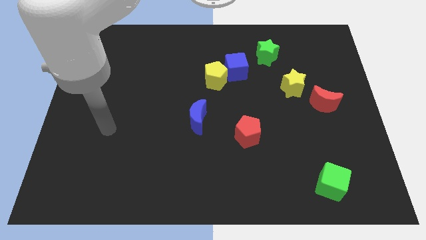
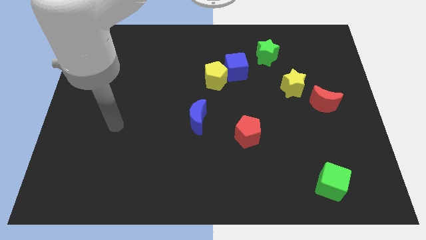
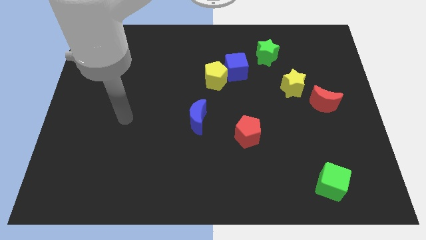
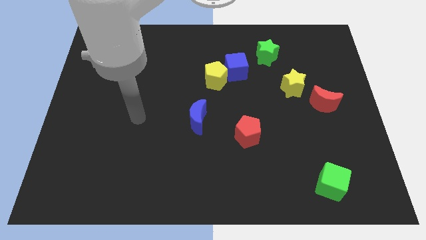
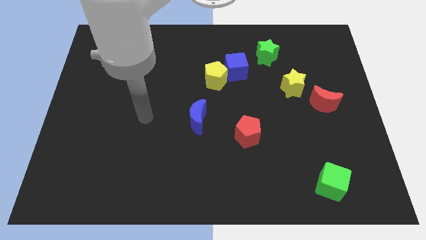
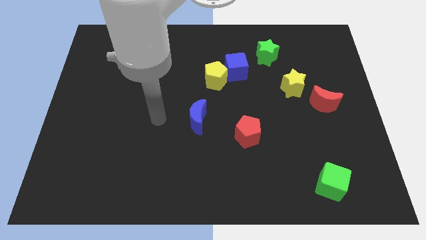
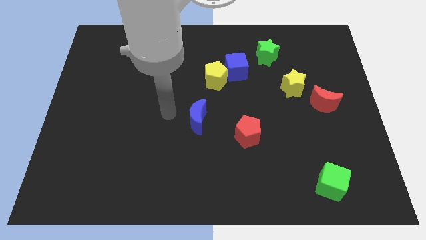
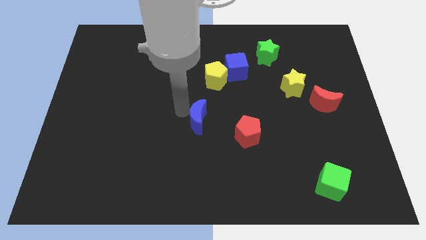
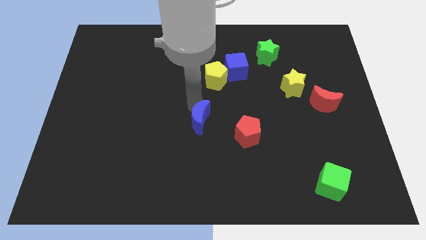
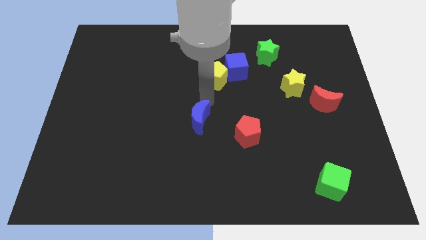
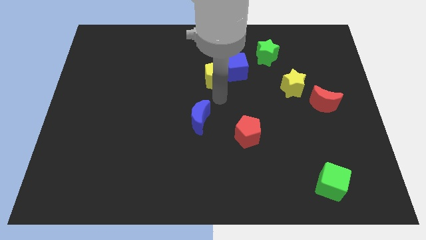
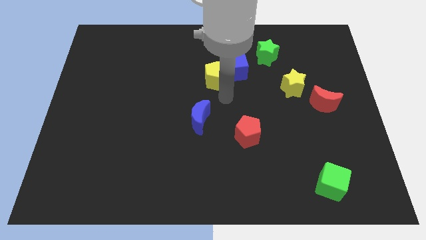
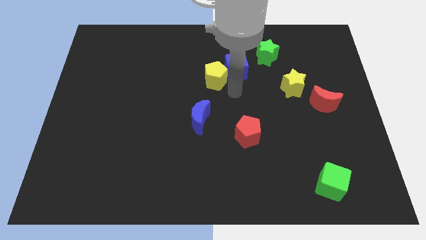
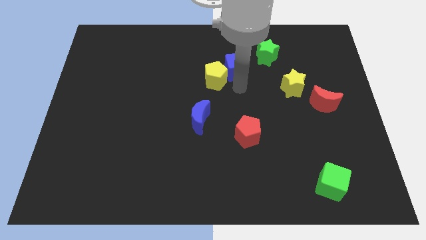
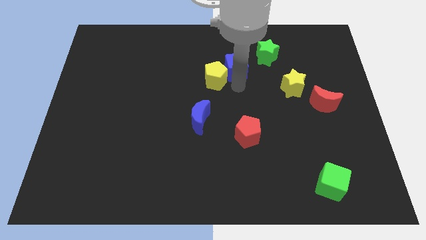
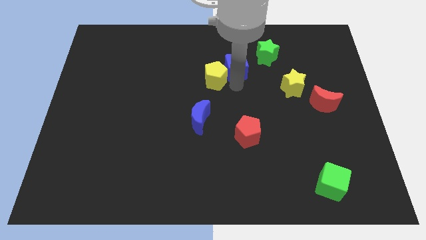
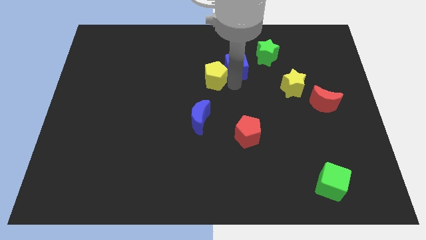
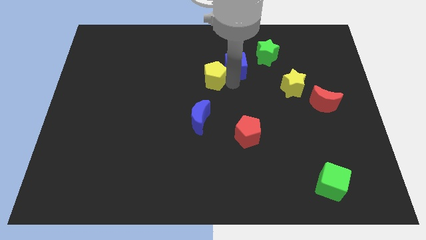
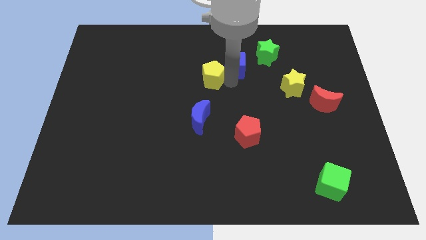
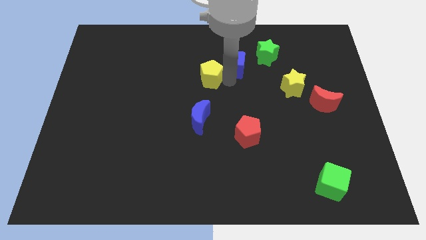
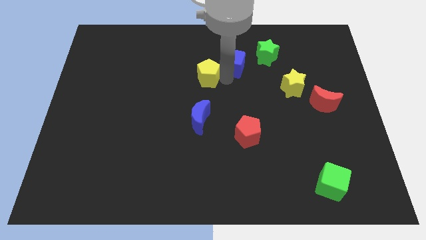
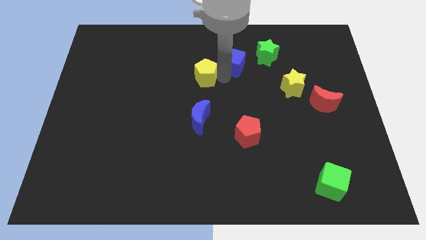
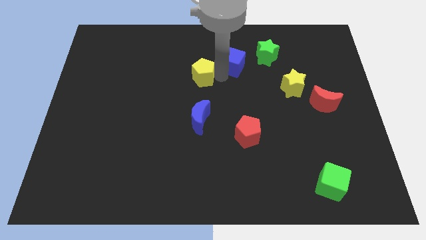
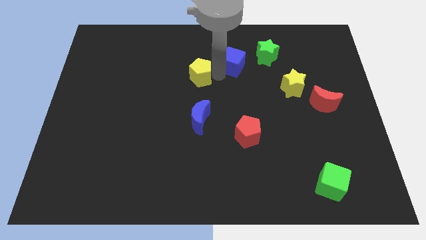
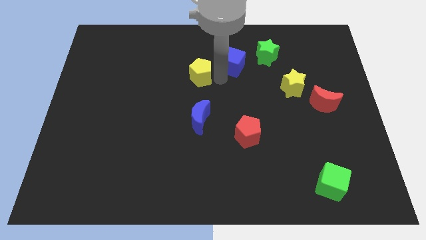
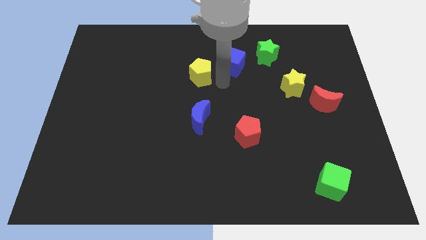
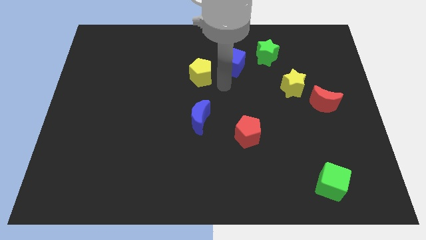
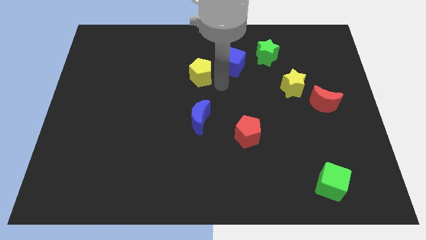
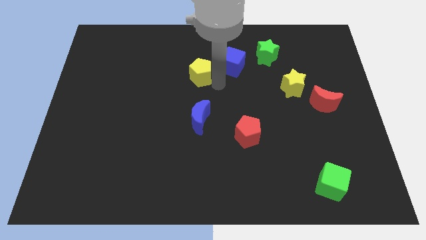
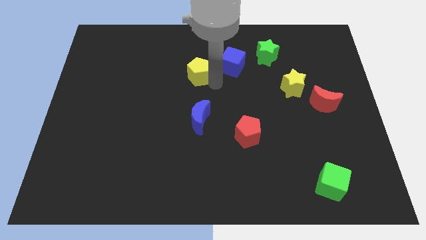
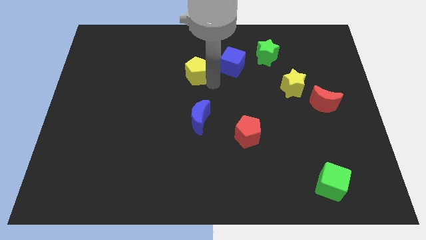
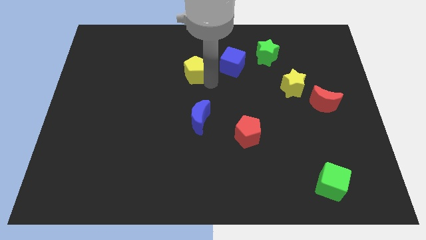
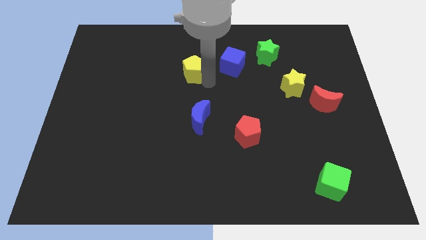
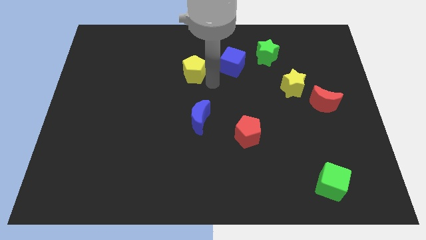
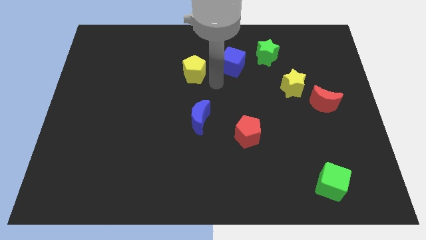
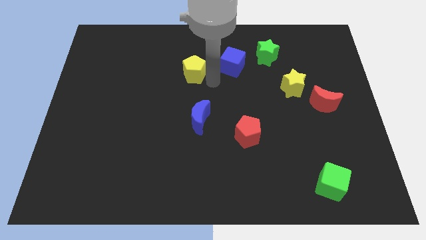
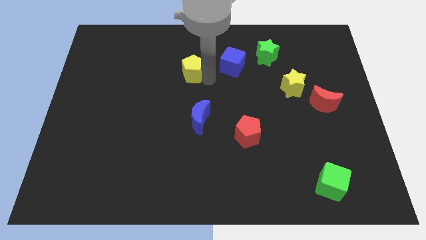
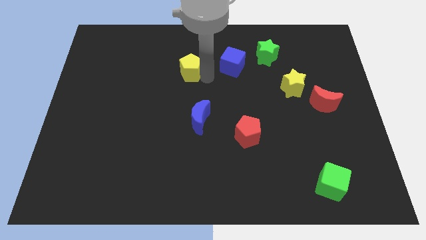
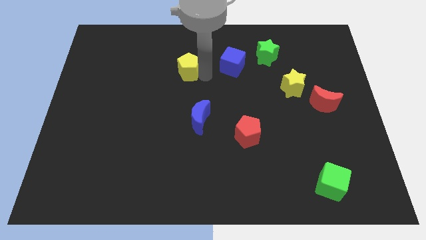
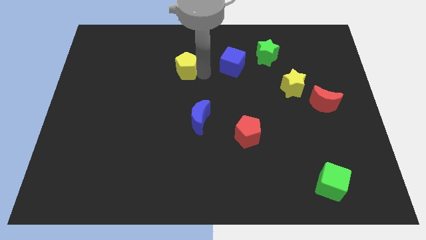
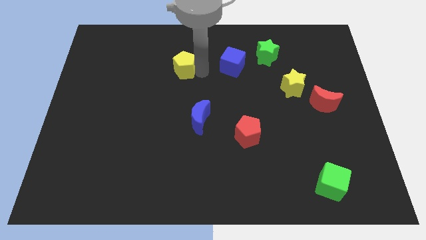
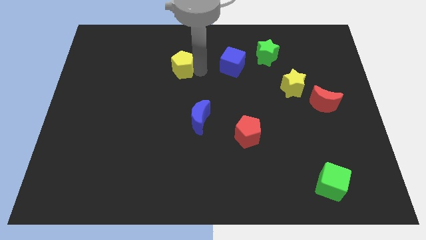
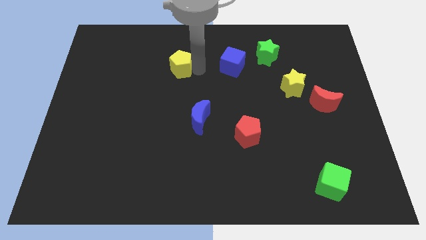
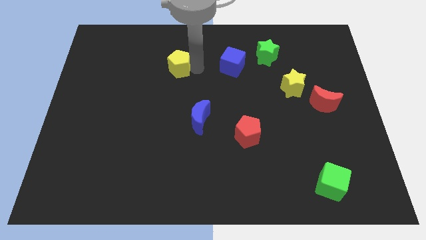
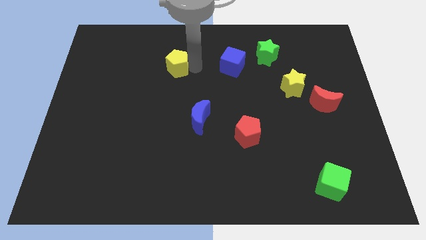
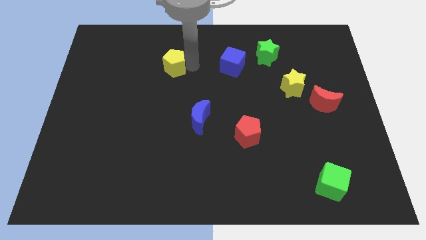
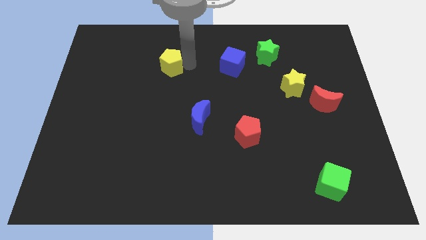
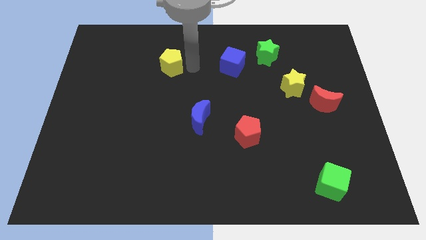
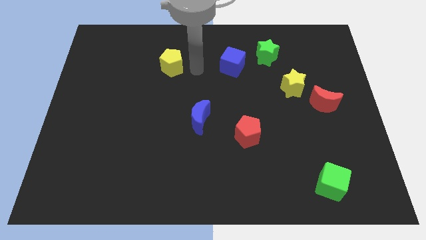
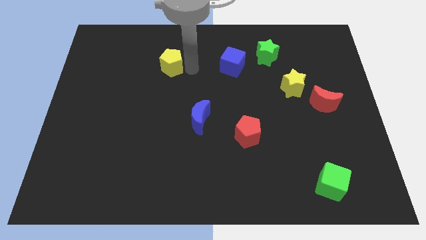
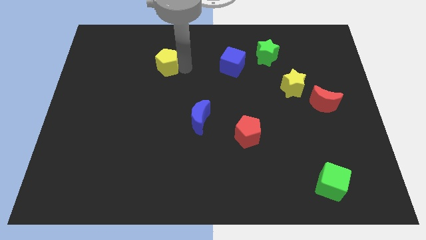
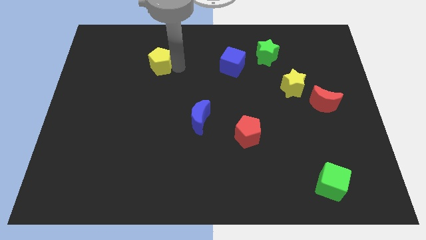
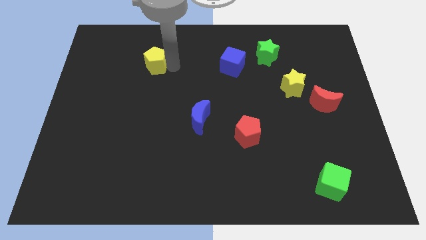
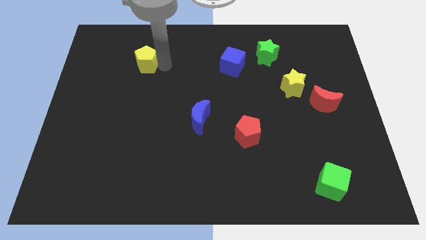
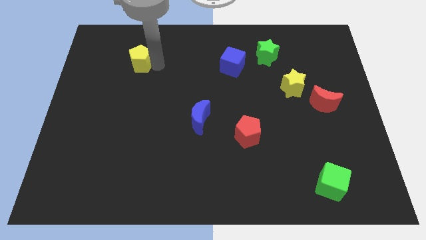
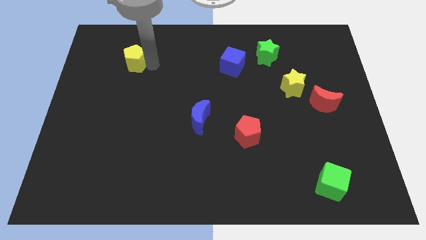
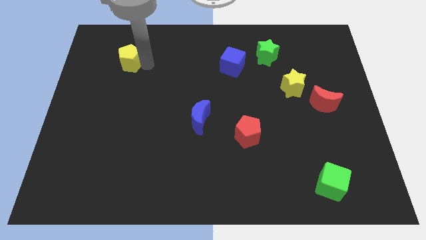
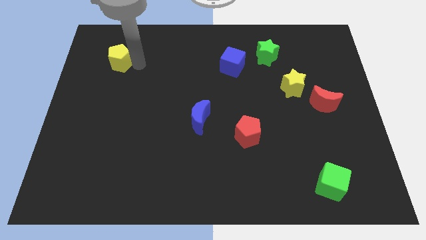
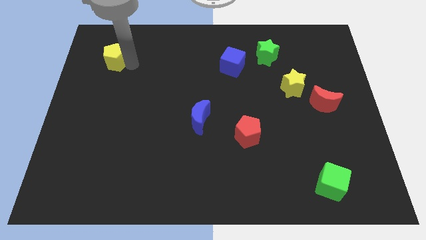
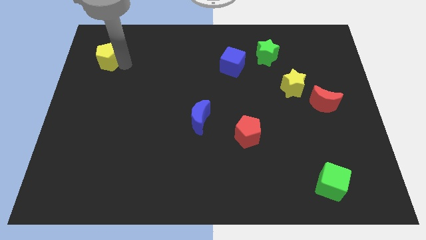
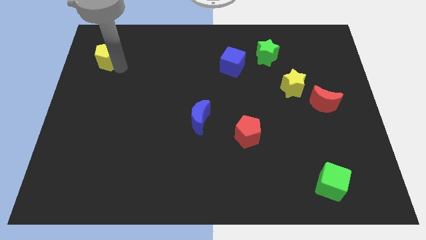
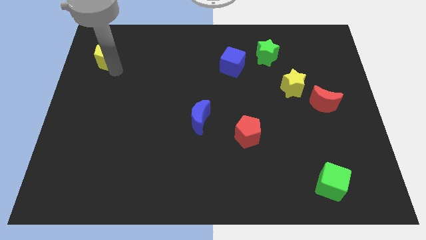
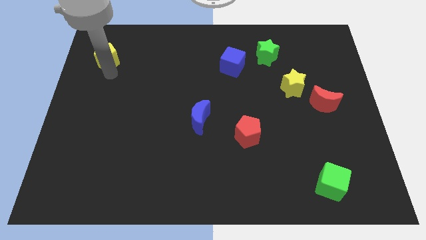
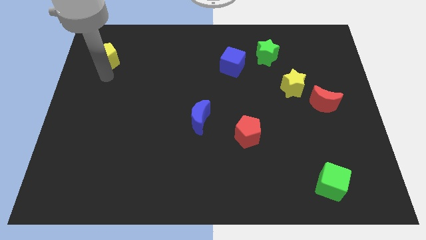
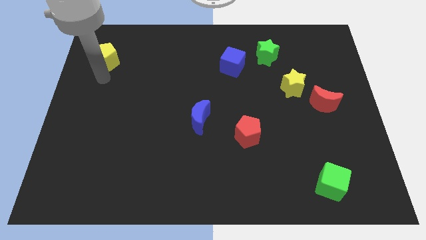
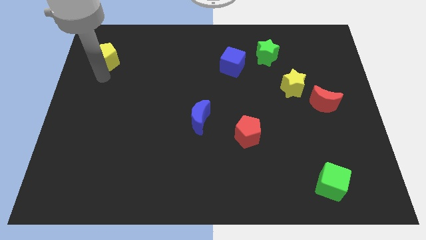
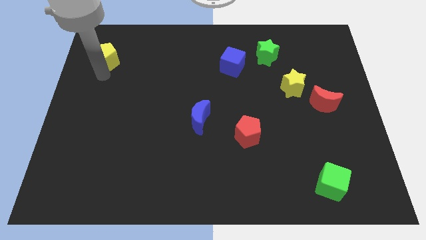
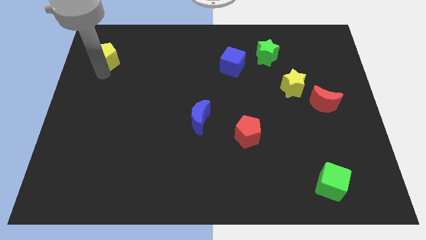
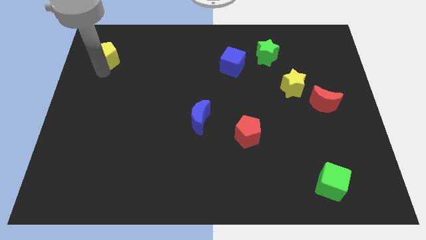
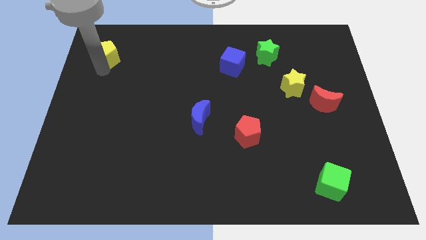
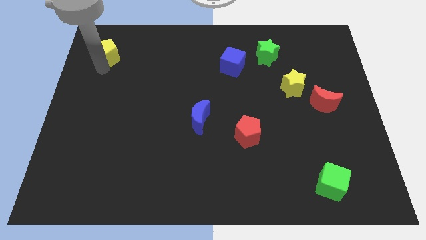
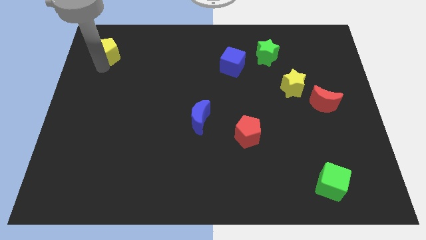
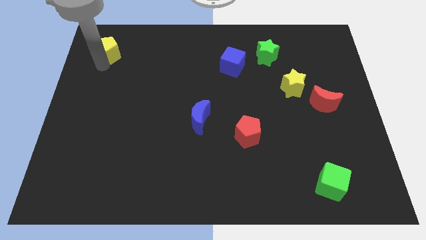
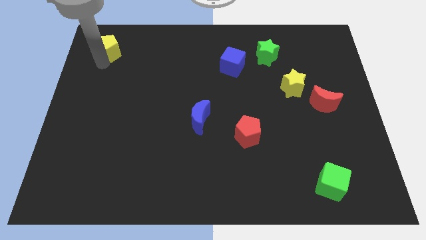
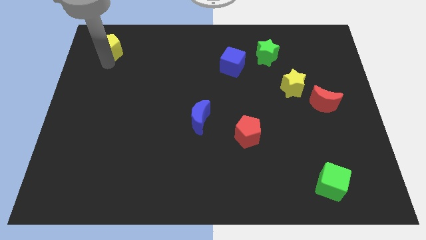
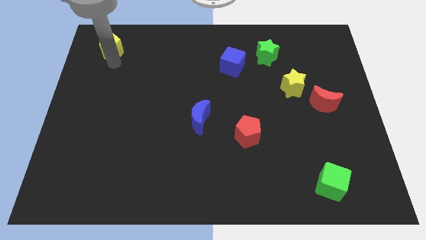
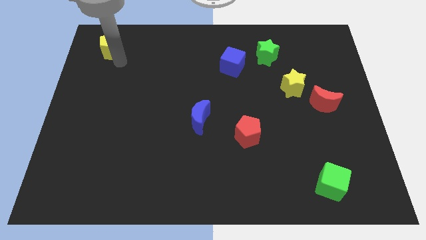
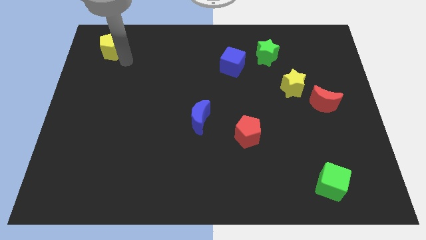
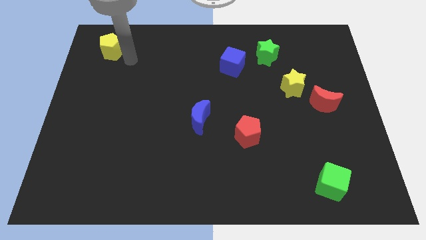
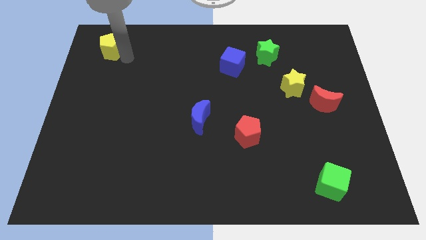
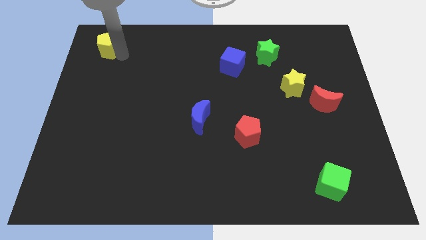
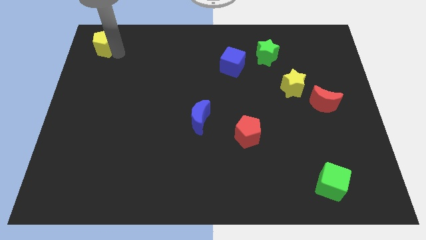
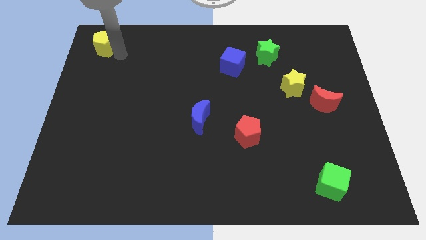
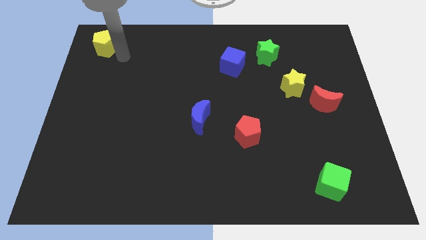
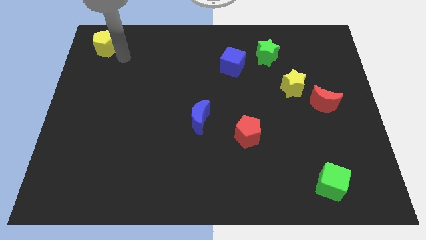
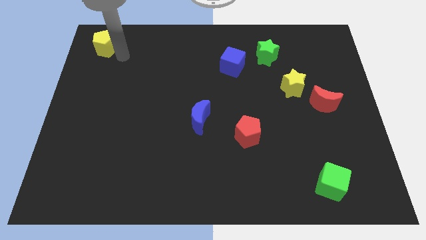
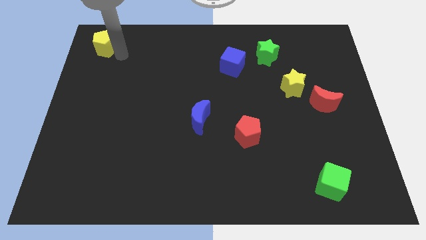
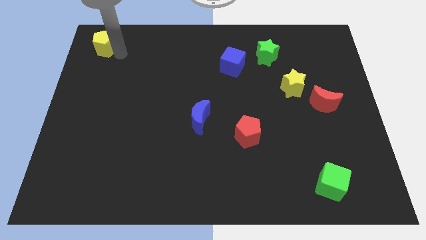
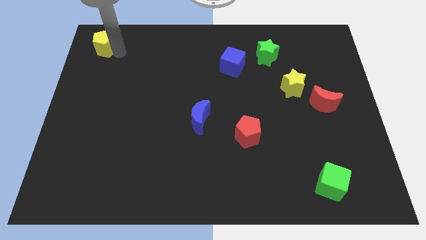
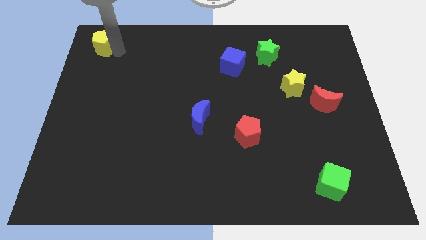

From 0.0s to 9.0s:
push the yellow pentagon to the upper left corner
